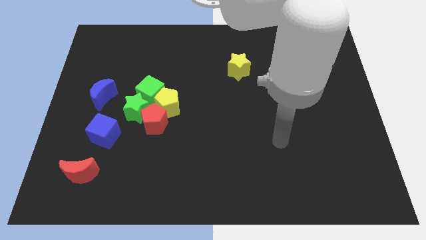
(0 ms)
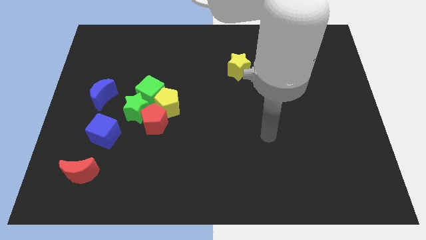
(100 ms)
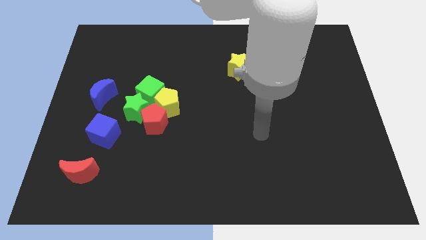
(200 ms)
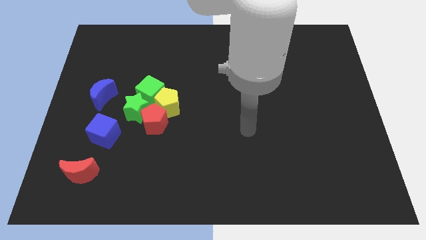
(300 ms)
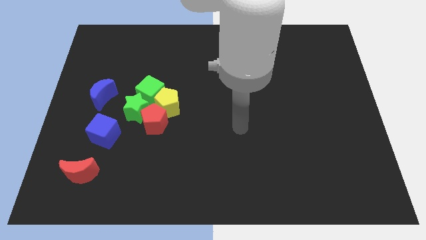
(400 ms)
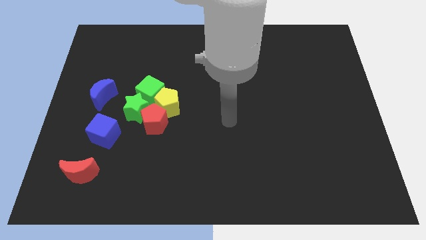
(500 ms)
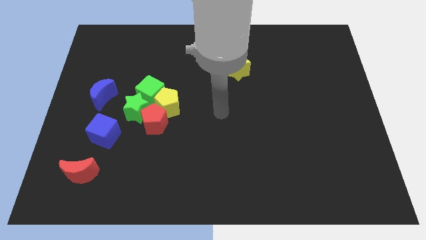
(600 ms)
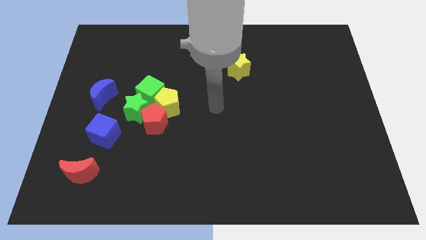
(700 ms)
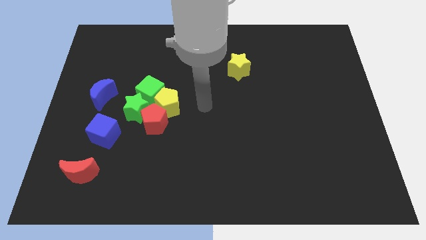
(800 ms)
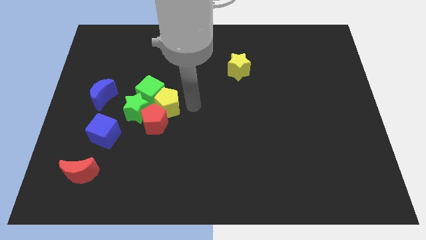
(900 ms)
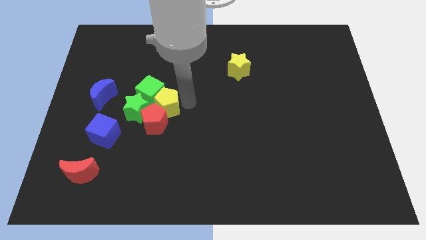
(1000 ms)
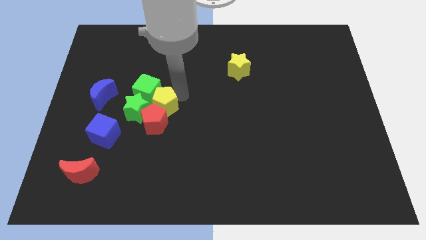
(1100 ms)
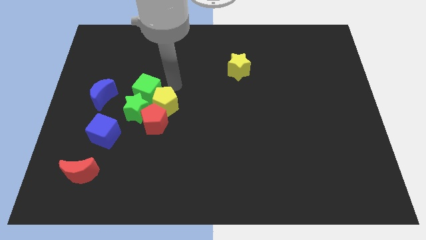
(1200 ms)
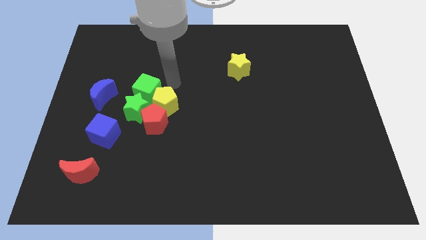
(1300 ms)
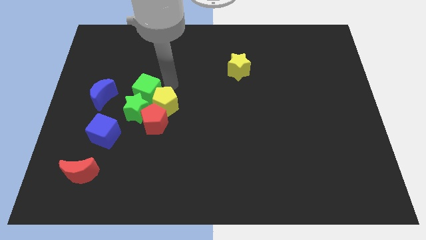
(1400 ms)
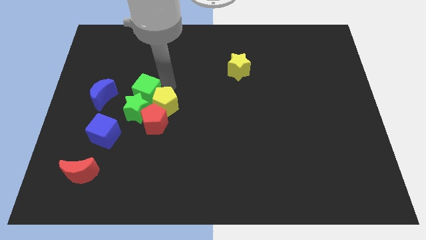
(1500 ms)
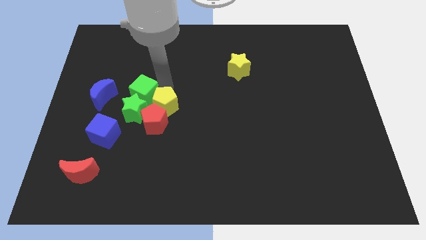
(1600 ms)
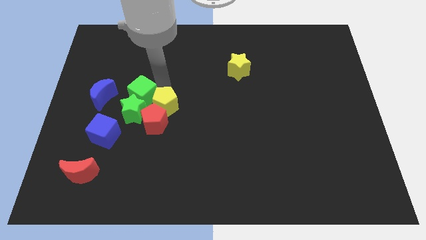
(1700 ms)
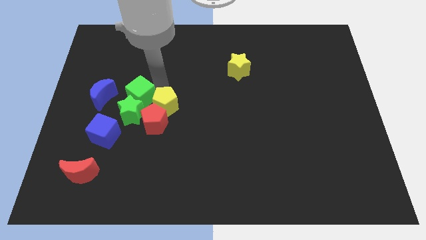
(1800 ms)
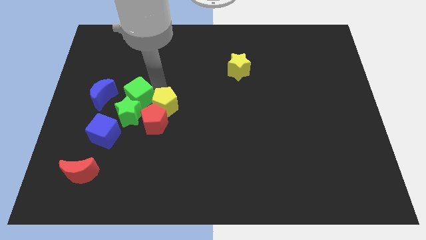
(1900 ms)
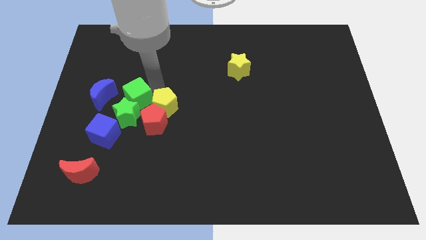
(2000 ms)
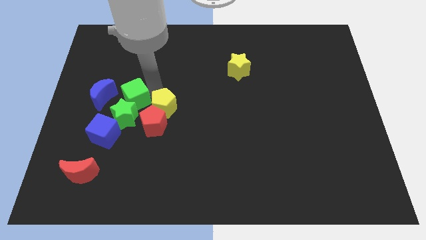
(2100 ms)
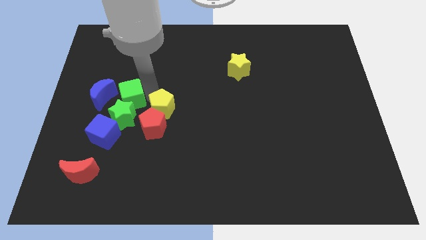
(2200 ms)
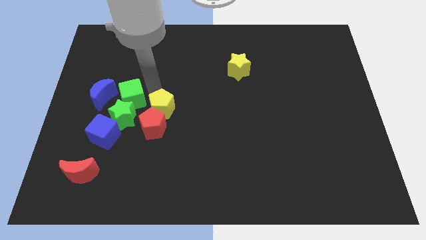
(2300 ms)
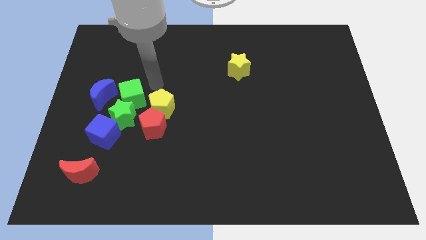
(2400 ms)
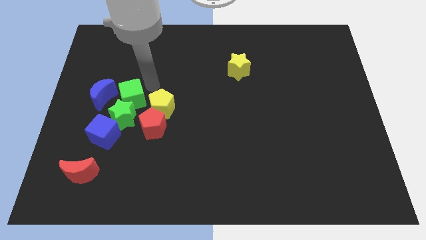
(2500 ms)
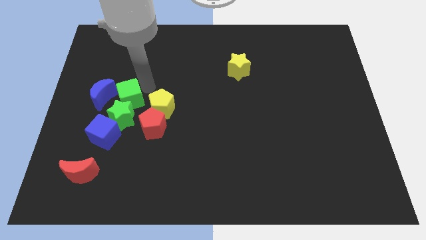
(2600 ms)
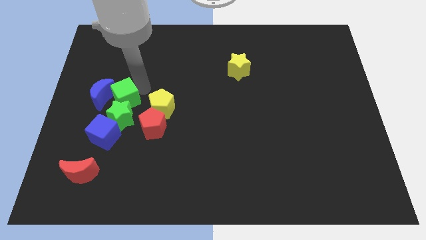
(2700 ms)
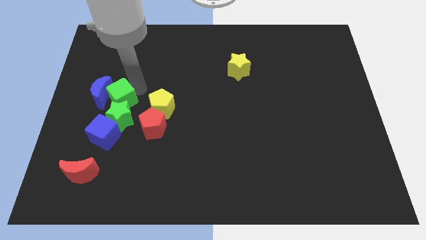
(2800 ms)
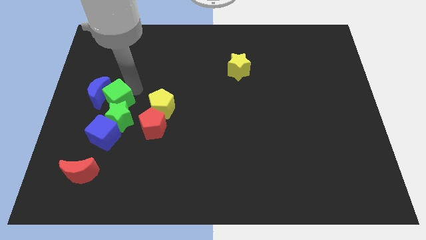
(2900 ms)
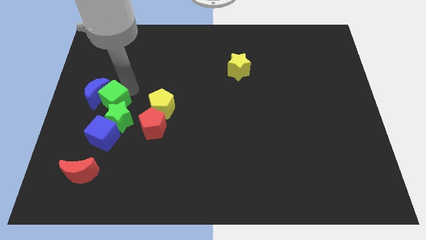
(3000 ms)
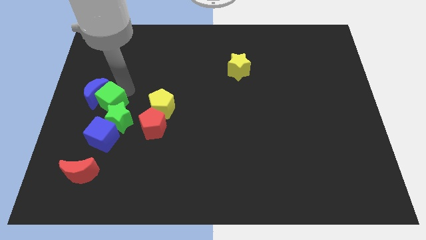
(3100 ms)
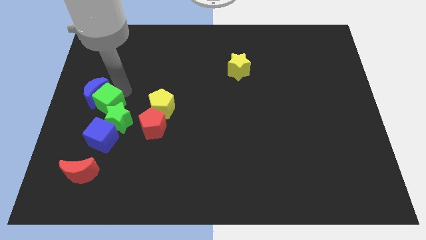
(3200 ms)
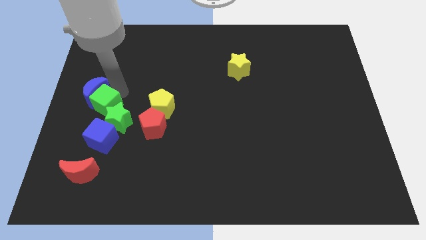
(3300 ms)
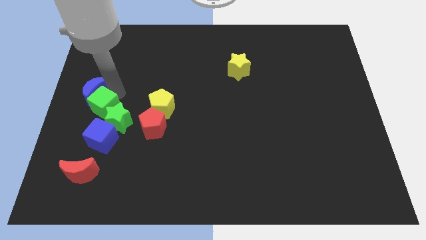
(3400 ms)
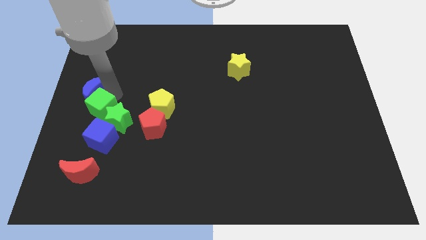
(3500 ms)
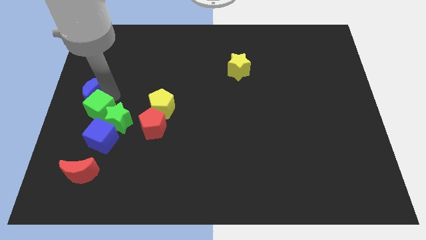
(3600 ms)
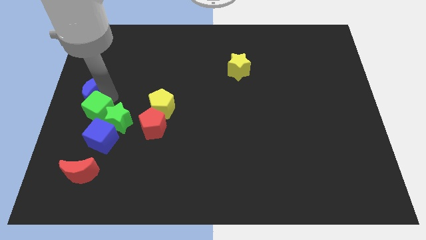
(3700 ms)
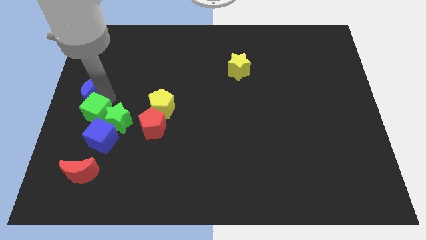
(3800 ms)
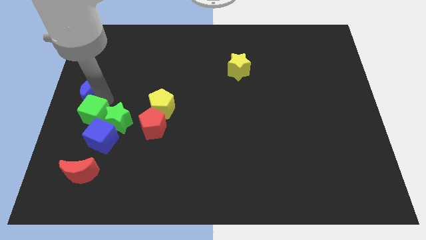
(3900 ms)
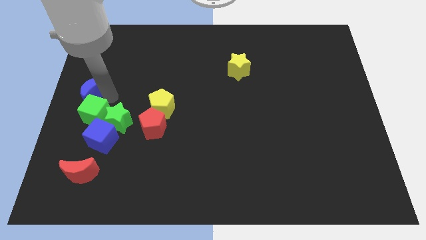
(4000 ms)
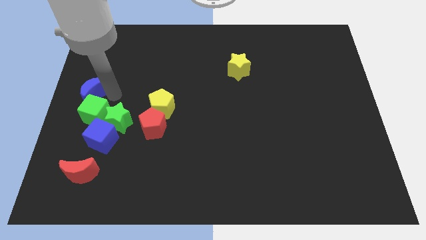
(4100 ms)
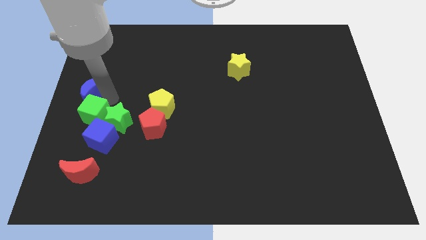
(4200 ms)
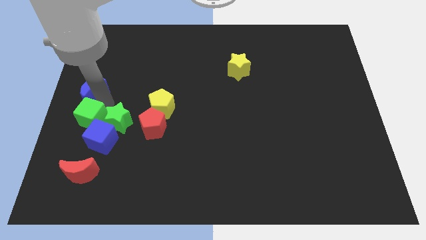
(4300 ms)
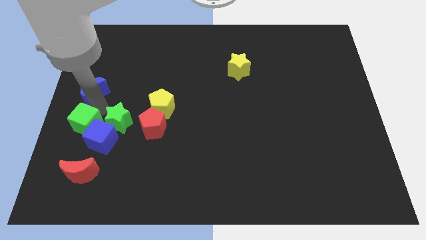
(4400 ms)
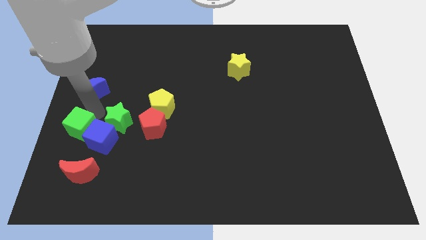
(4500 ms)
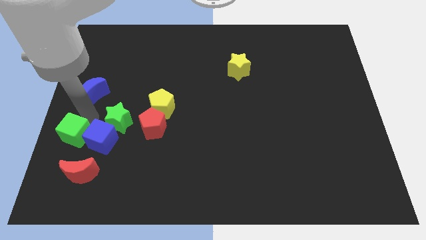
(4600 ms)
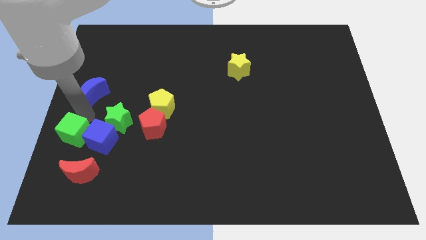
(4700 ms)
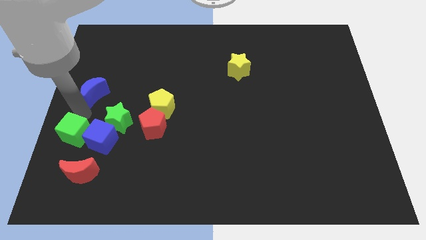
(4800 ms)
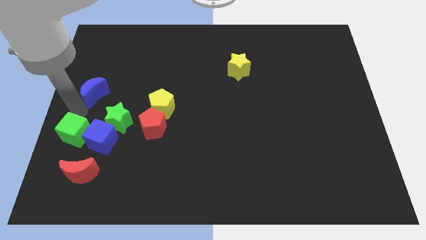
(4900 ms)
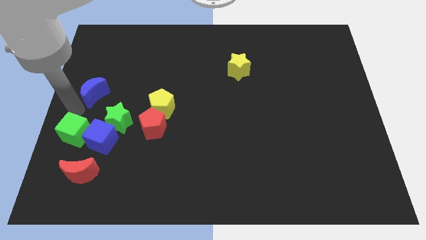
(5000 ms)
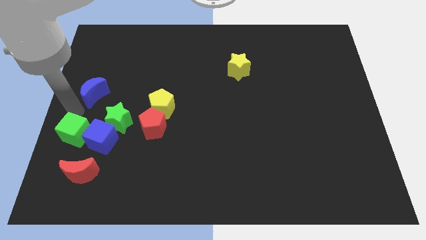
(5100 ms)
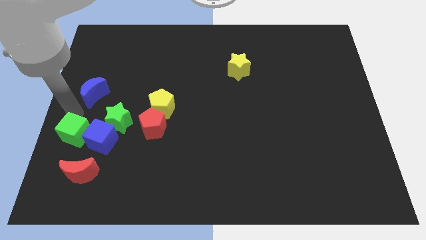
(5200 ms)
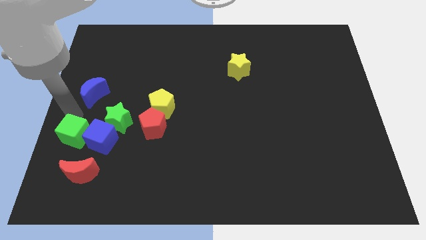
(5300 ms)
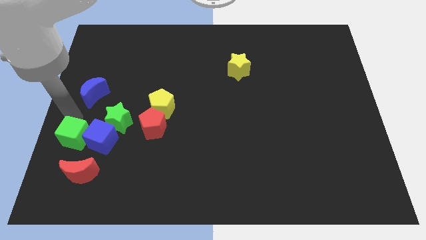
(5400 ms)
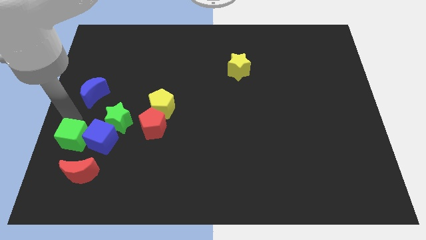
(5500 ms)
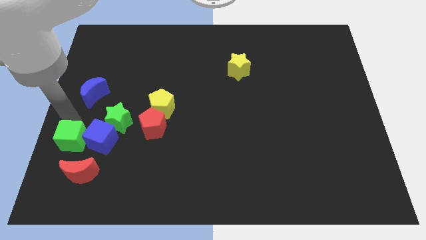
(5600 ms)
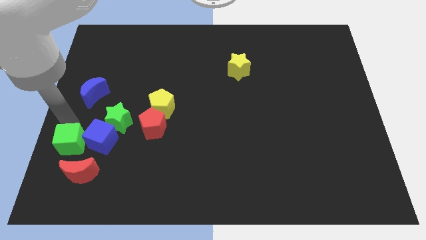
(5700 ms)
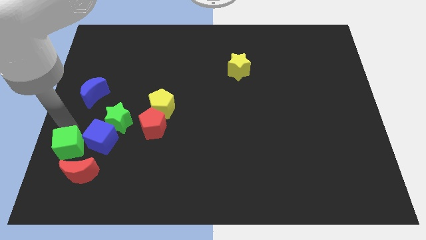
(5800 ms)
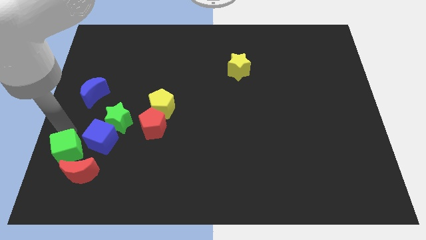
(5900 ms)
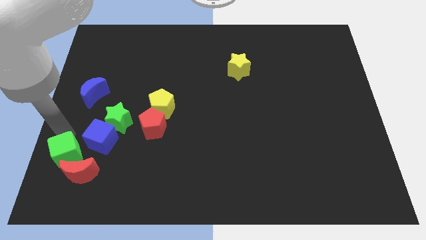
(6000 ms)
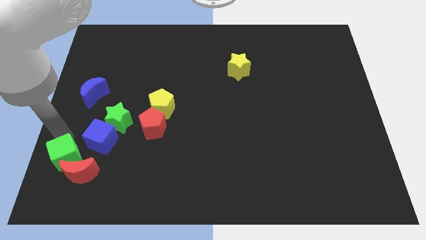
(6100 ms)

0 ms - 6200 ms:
put the green cube to the red moon
